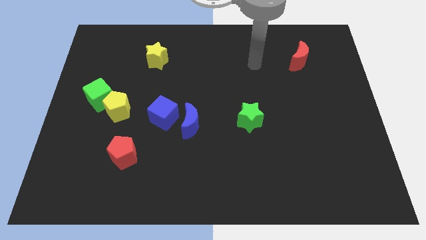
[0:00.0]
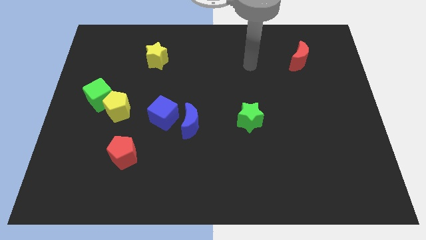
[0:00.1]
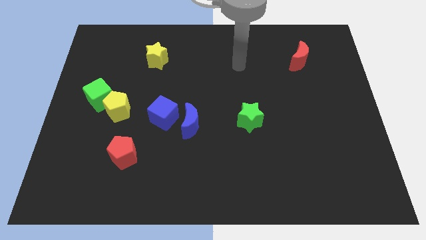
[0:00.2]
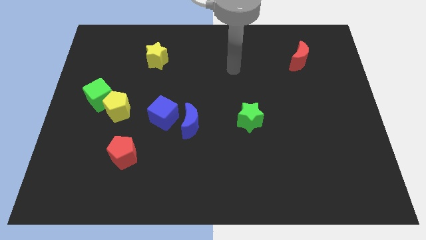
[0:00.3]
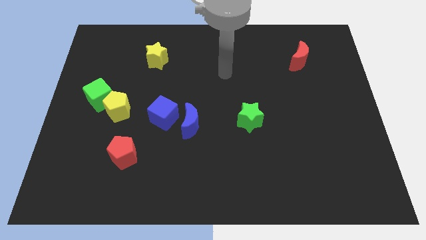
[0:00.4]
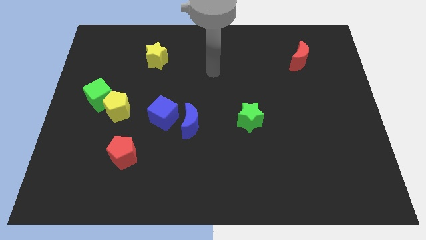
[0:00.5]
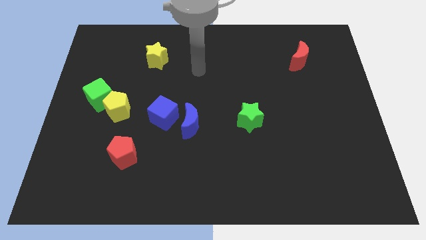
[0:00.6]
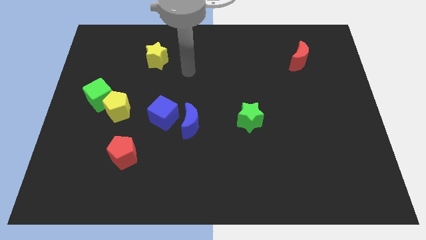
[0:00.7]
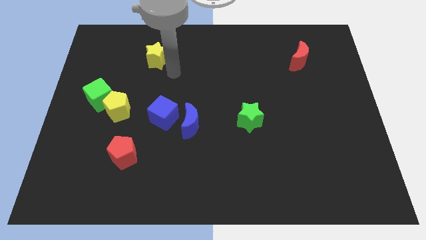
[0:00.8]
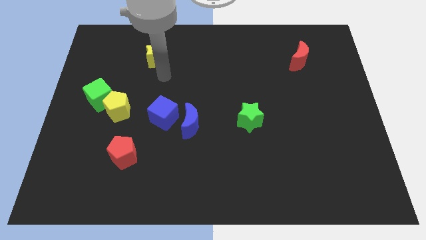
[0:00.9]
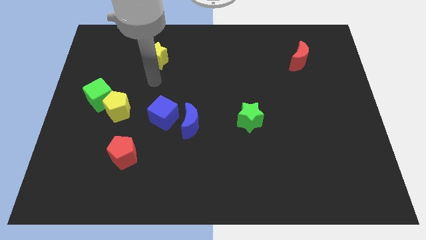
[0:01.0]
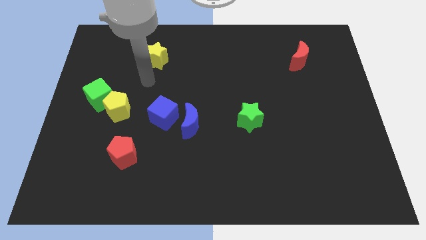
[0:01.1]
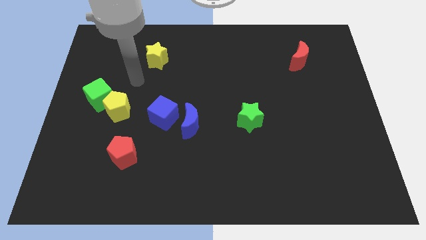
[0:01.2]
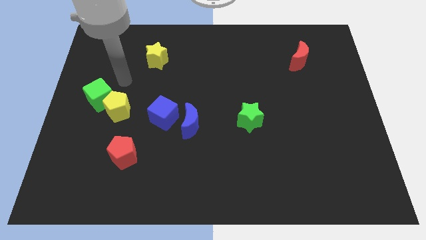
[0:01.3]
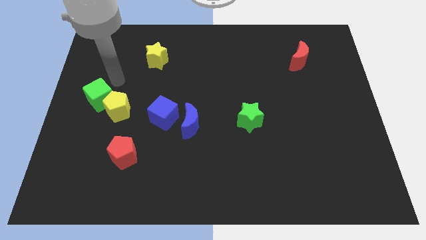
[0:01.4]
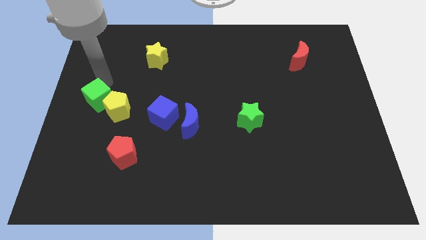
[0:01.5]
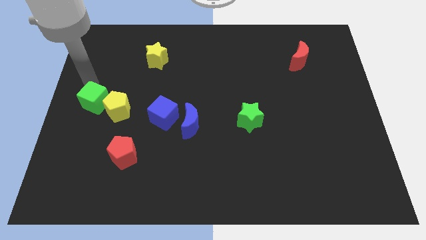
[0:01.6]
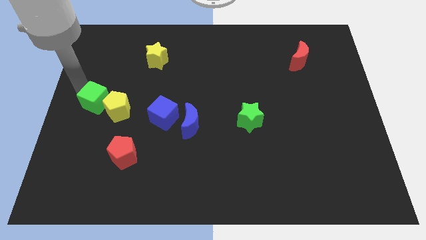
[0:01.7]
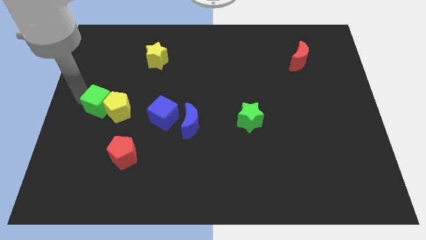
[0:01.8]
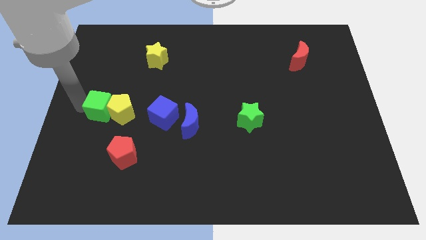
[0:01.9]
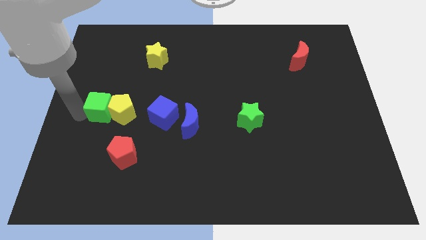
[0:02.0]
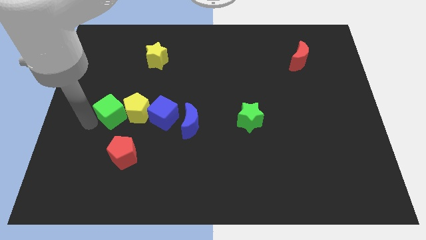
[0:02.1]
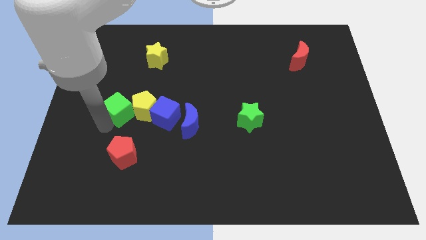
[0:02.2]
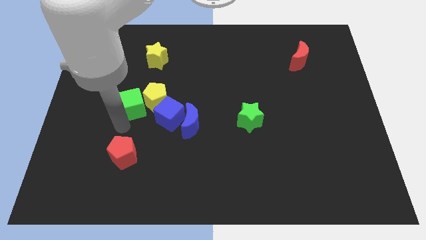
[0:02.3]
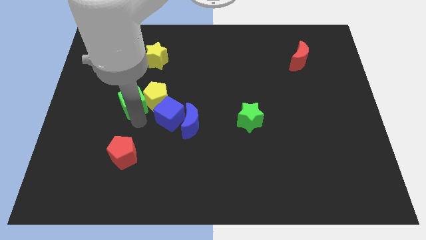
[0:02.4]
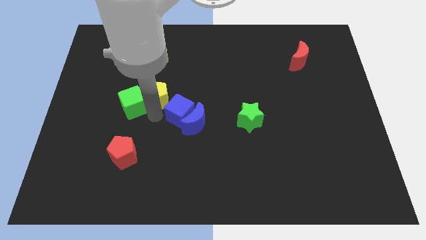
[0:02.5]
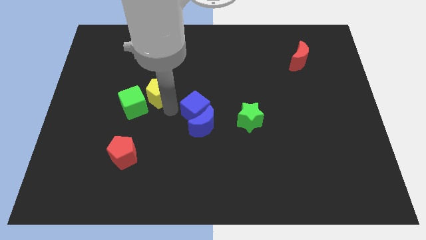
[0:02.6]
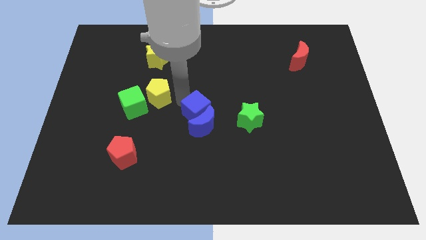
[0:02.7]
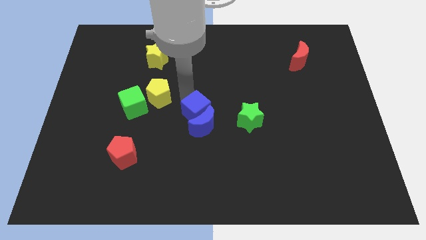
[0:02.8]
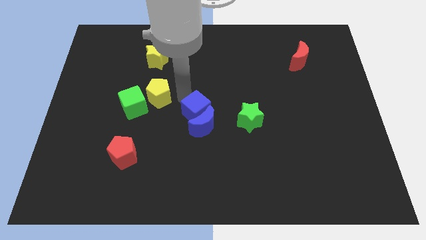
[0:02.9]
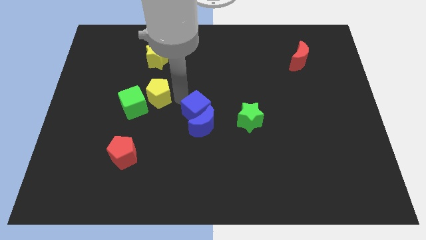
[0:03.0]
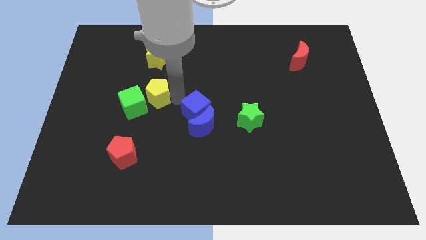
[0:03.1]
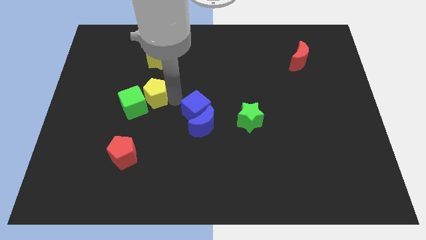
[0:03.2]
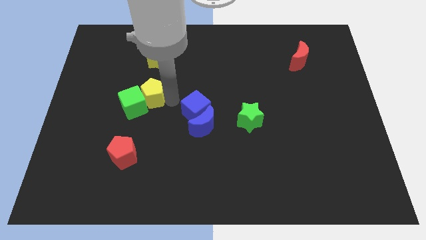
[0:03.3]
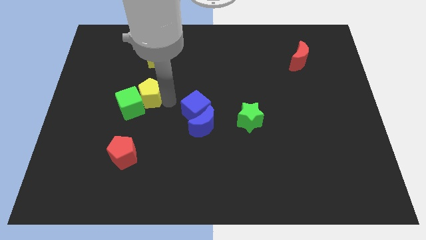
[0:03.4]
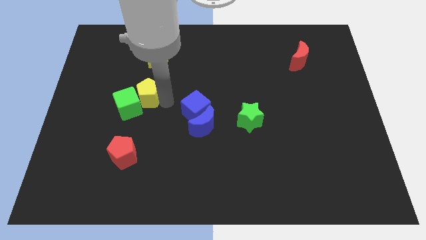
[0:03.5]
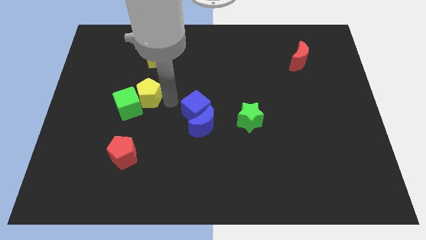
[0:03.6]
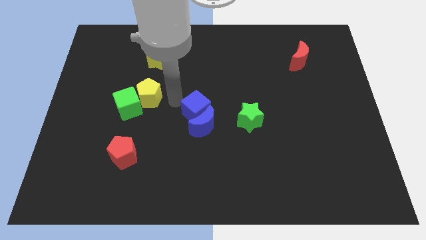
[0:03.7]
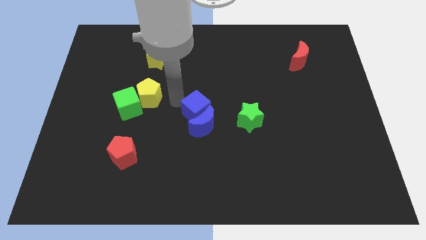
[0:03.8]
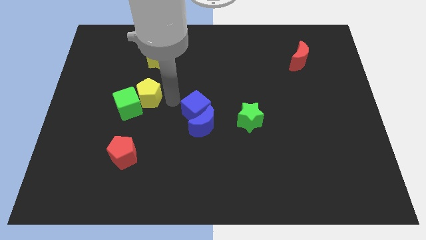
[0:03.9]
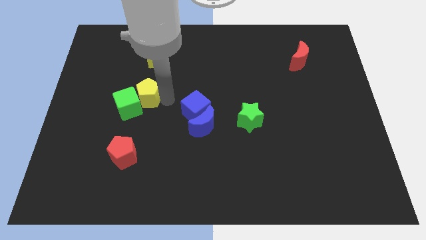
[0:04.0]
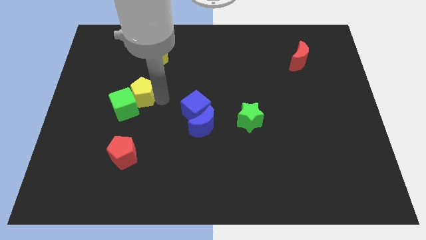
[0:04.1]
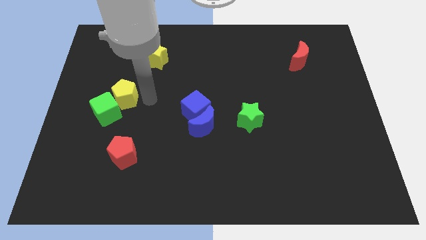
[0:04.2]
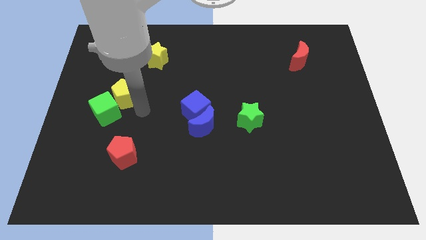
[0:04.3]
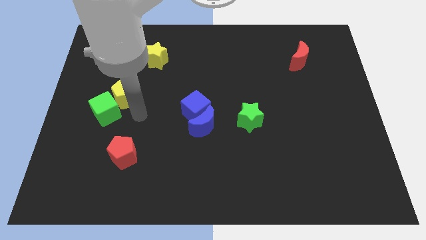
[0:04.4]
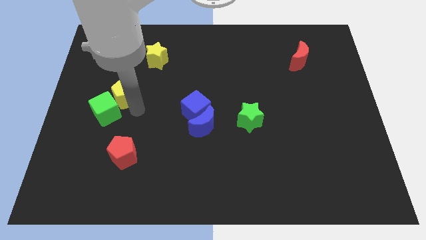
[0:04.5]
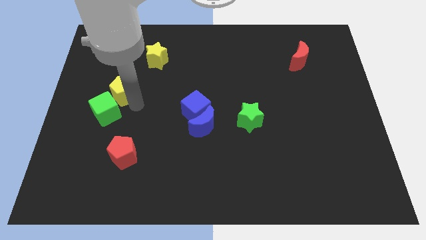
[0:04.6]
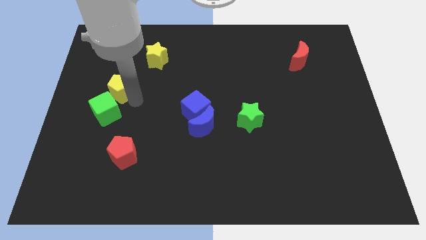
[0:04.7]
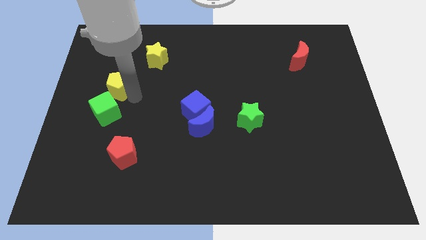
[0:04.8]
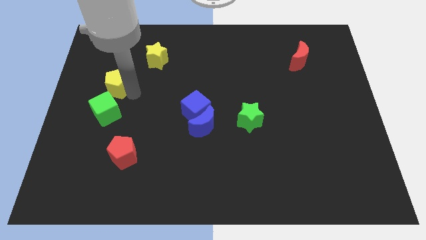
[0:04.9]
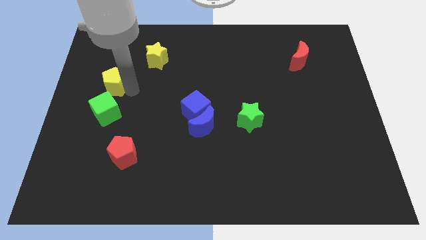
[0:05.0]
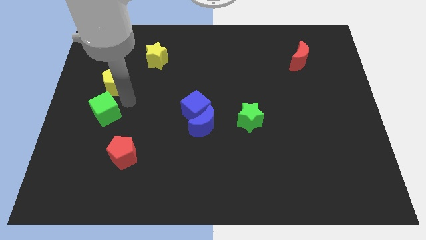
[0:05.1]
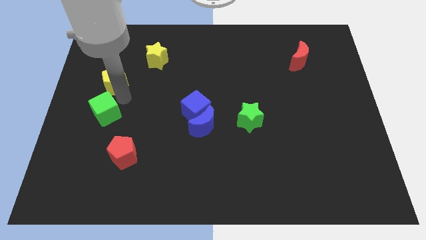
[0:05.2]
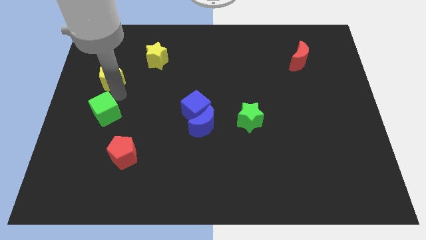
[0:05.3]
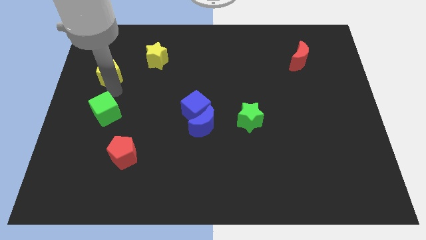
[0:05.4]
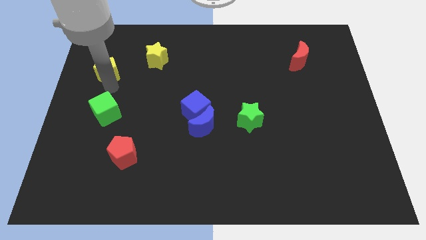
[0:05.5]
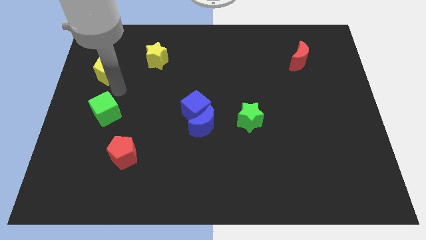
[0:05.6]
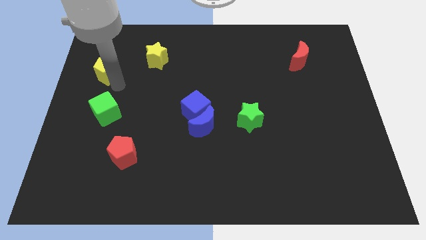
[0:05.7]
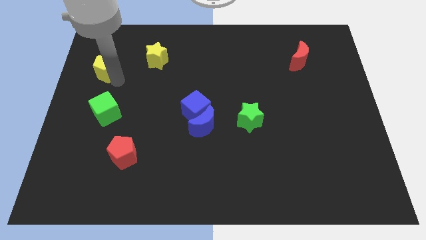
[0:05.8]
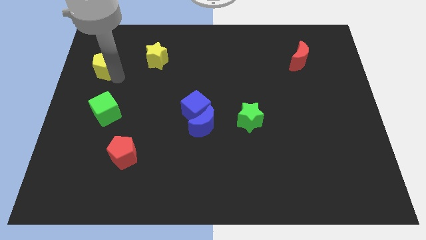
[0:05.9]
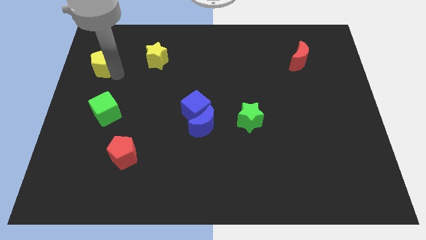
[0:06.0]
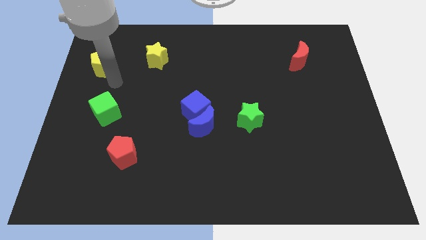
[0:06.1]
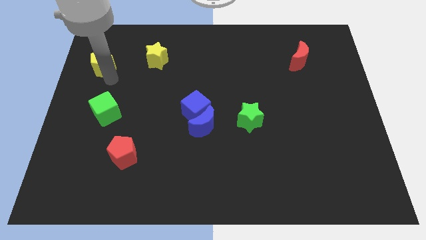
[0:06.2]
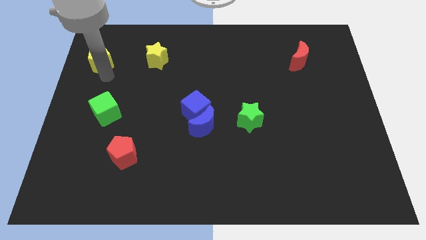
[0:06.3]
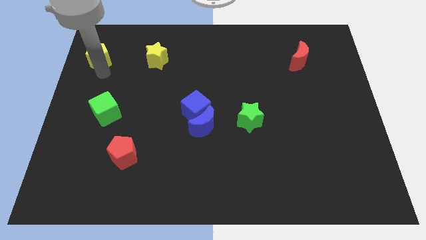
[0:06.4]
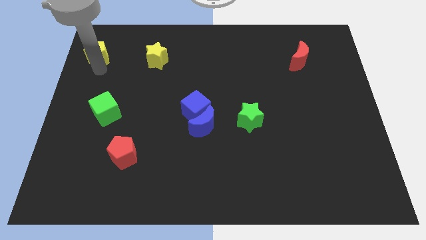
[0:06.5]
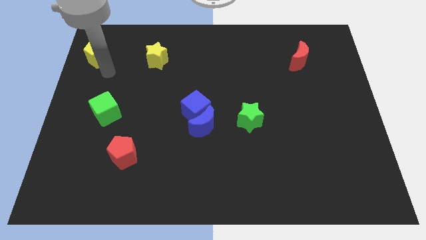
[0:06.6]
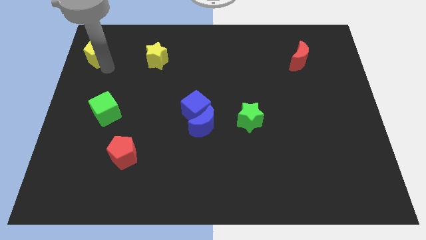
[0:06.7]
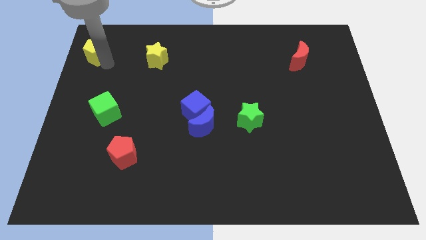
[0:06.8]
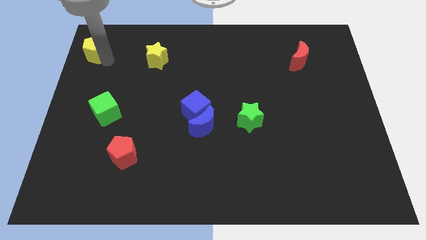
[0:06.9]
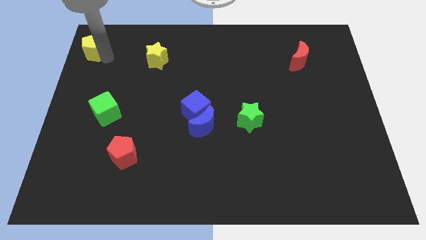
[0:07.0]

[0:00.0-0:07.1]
slide the yellow pentagon to the top left corner
